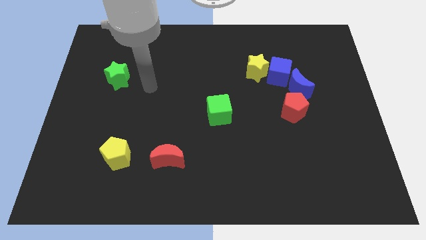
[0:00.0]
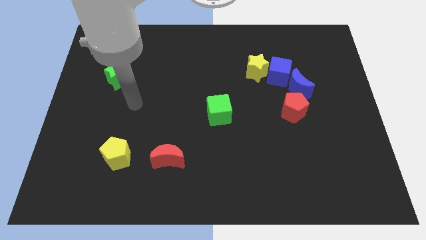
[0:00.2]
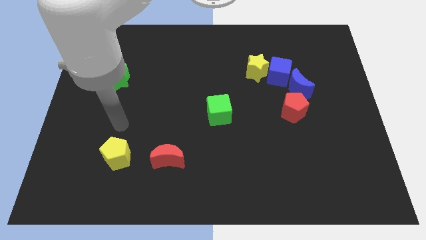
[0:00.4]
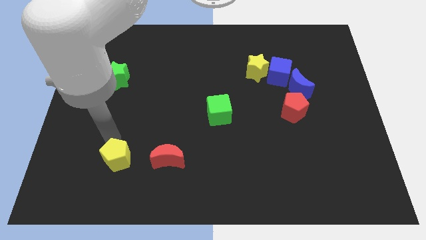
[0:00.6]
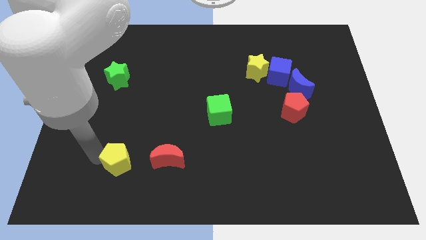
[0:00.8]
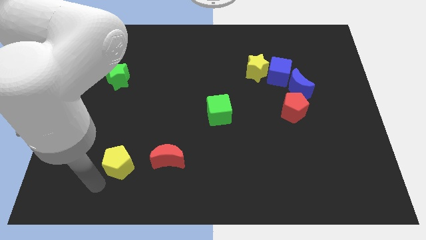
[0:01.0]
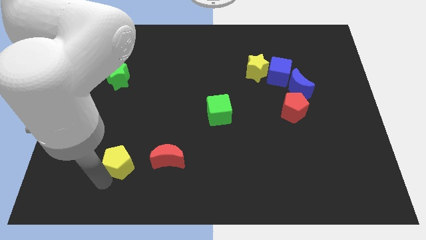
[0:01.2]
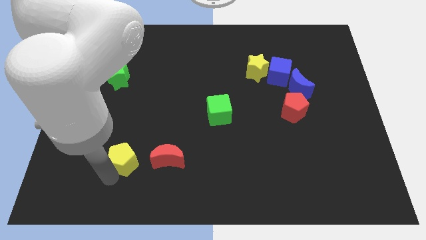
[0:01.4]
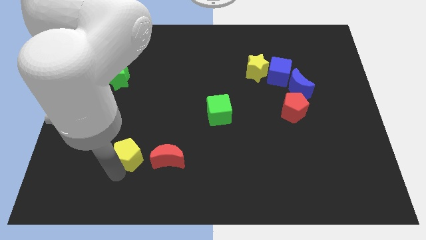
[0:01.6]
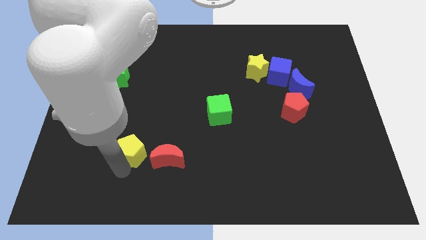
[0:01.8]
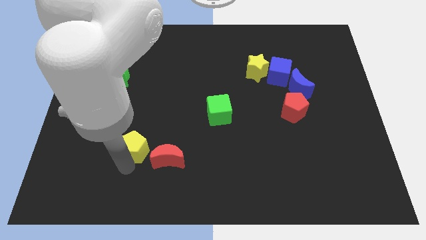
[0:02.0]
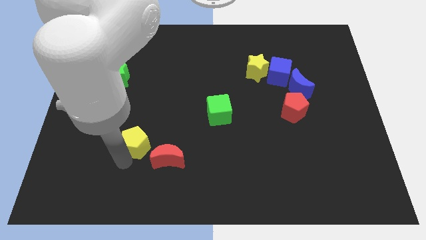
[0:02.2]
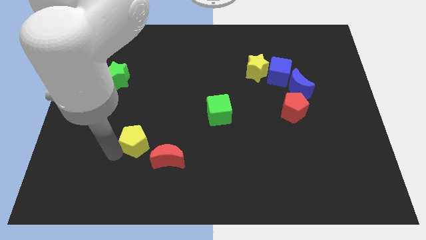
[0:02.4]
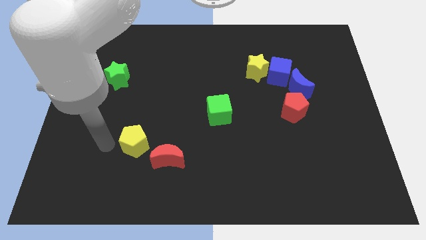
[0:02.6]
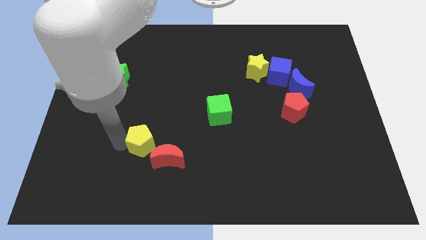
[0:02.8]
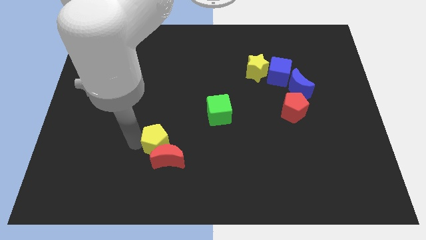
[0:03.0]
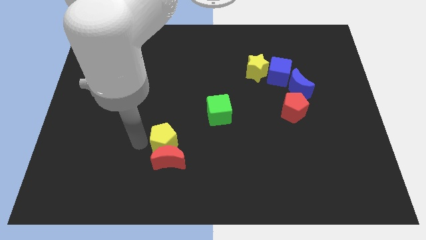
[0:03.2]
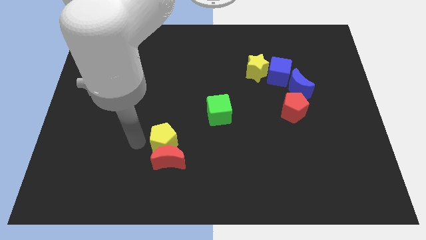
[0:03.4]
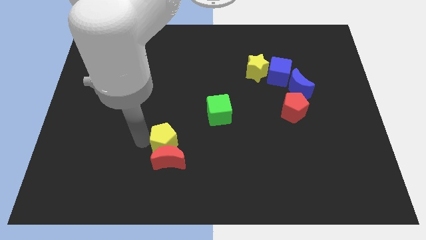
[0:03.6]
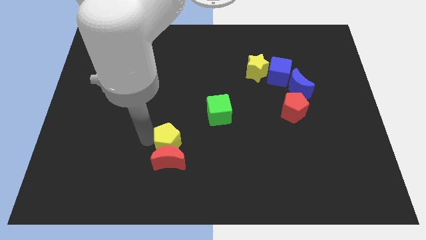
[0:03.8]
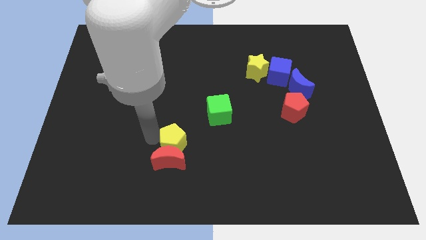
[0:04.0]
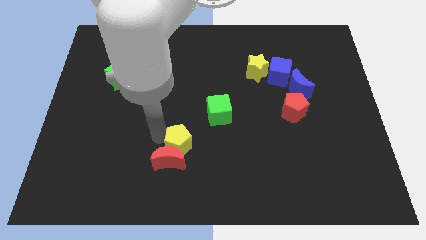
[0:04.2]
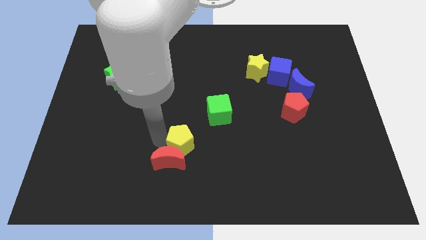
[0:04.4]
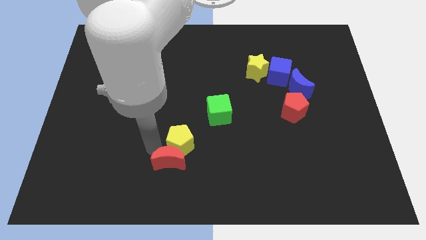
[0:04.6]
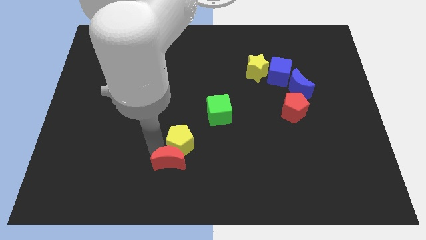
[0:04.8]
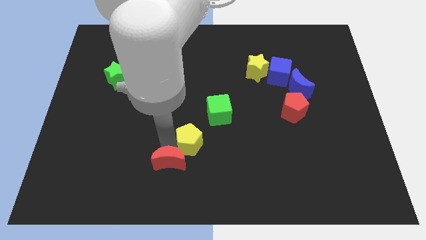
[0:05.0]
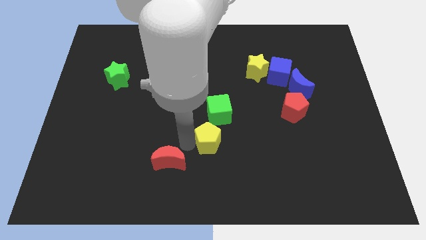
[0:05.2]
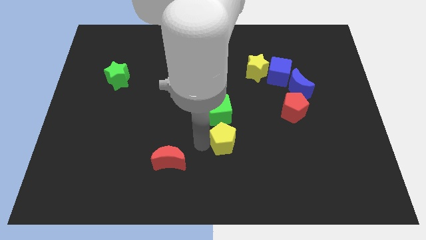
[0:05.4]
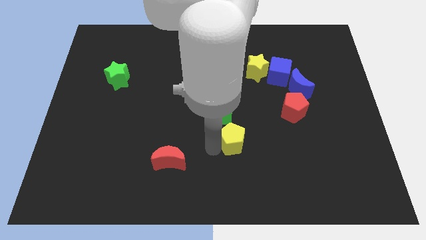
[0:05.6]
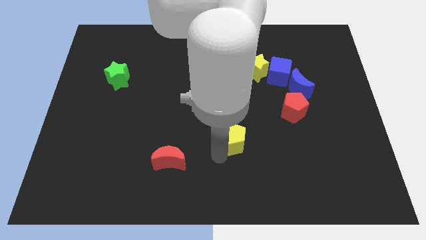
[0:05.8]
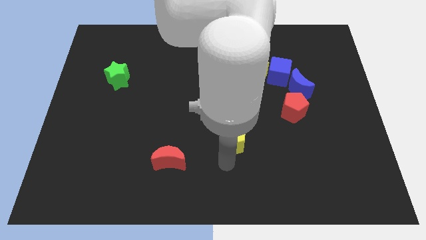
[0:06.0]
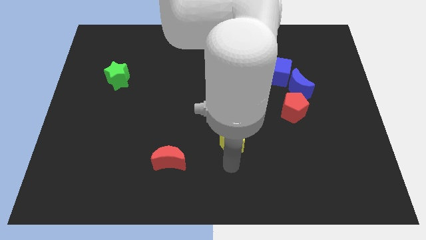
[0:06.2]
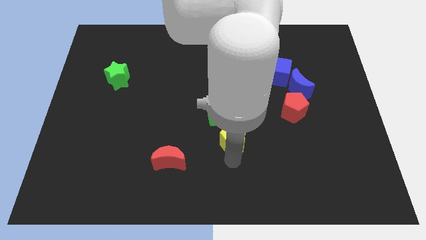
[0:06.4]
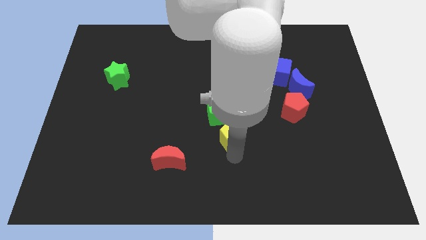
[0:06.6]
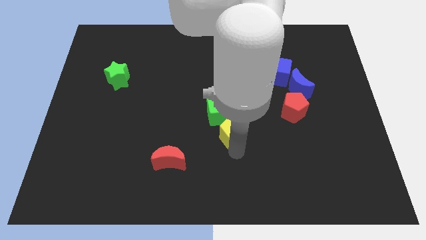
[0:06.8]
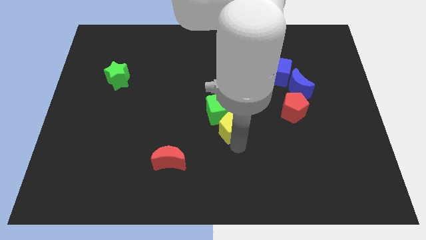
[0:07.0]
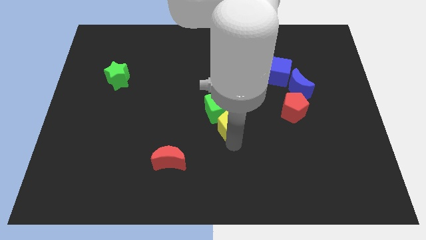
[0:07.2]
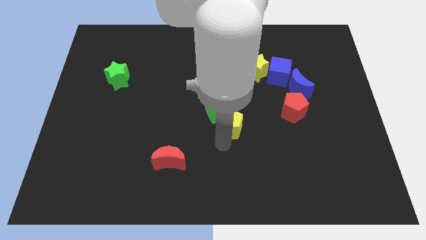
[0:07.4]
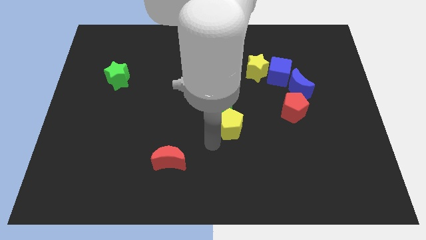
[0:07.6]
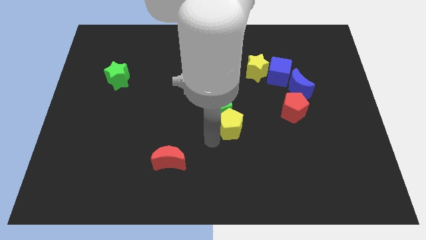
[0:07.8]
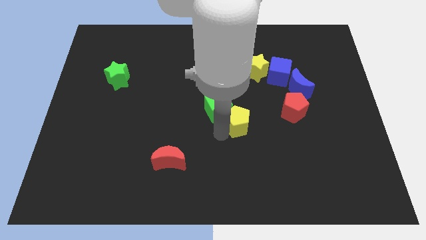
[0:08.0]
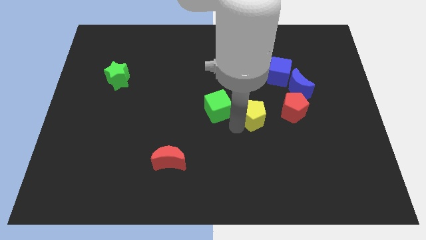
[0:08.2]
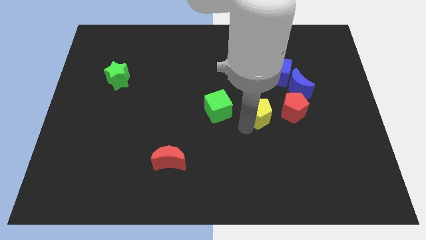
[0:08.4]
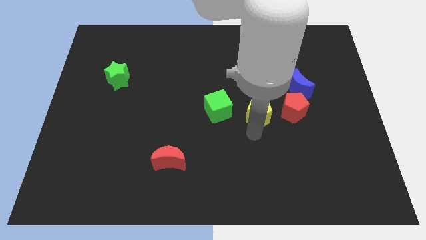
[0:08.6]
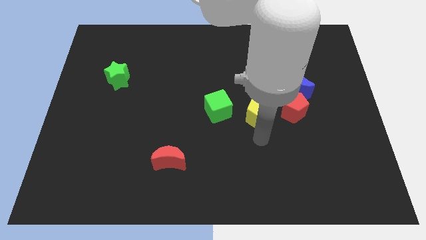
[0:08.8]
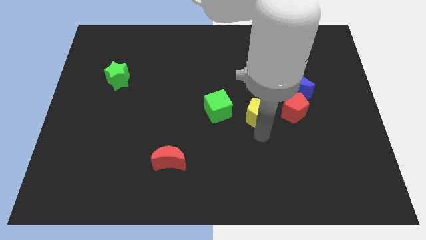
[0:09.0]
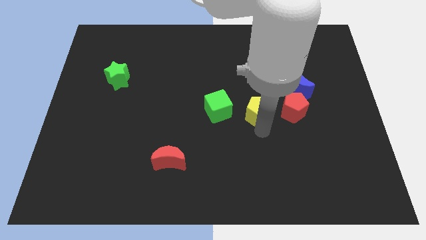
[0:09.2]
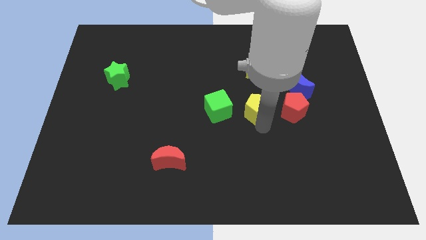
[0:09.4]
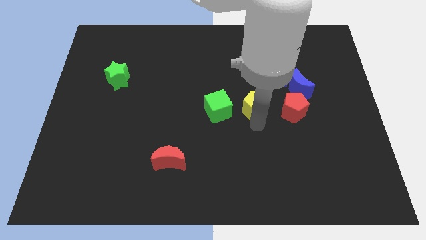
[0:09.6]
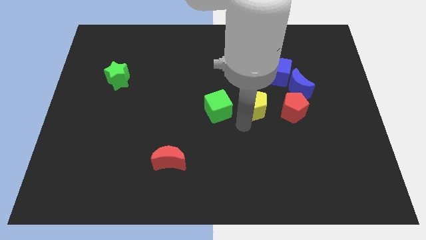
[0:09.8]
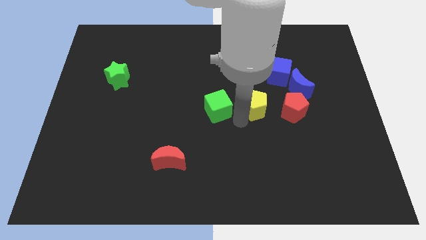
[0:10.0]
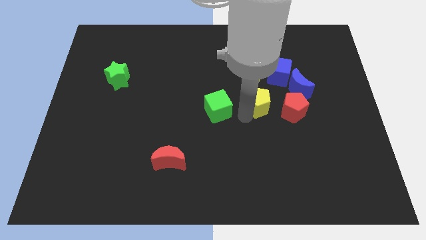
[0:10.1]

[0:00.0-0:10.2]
move the yellow pentagon diagonally up and to the left of the red pentagon

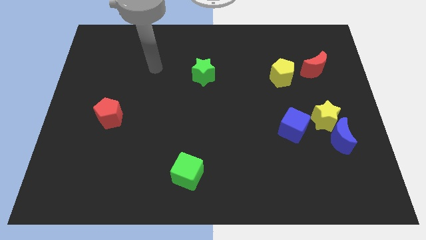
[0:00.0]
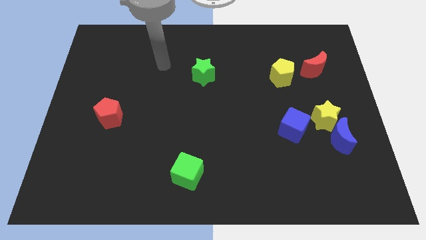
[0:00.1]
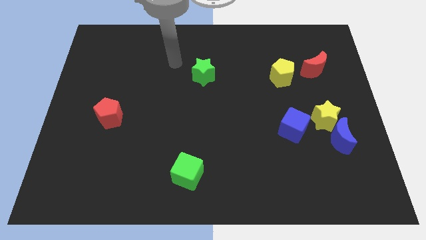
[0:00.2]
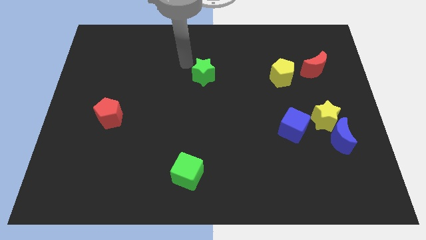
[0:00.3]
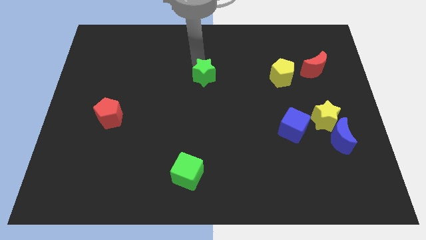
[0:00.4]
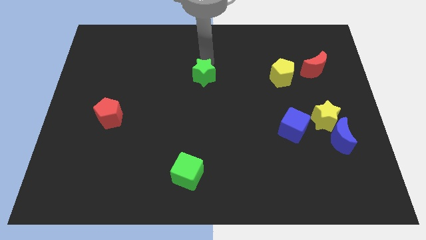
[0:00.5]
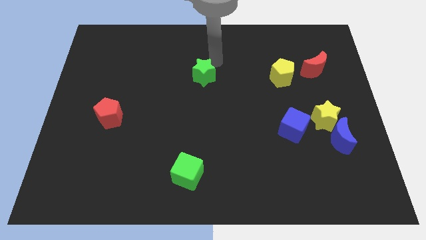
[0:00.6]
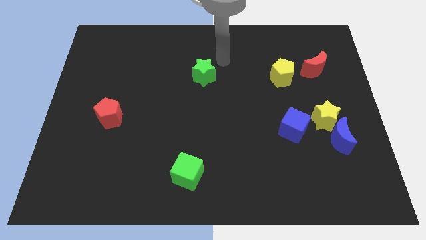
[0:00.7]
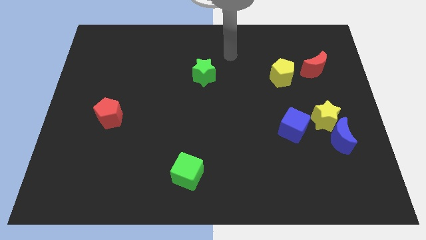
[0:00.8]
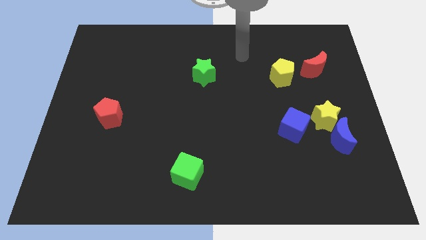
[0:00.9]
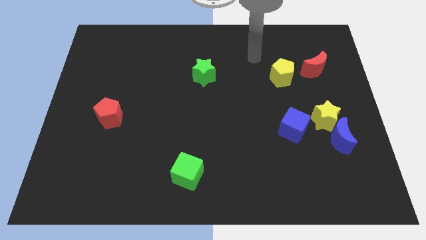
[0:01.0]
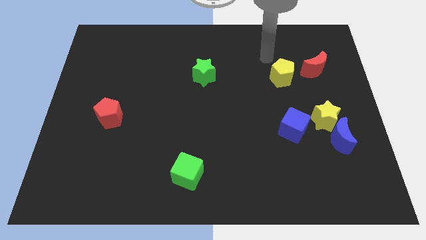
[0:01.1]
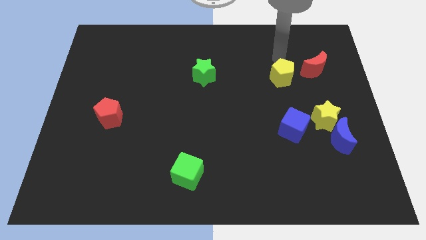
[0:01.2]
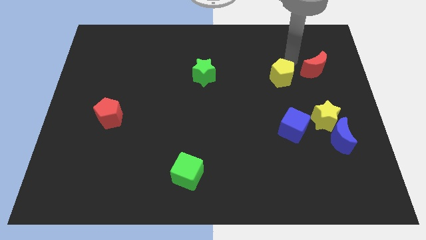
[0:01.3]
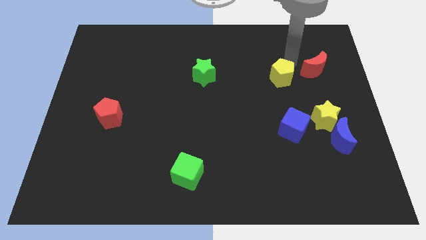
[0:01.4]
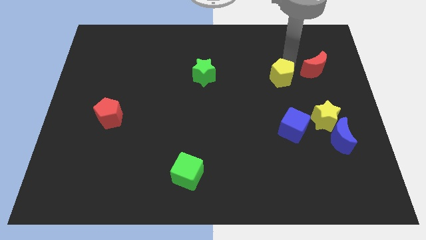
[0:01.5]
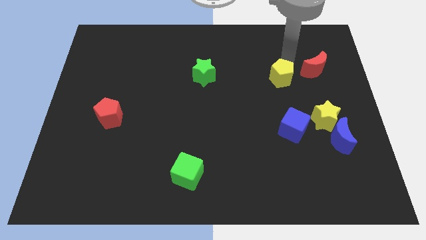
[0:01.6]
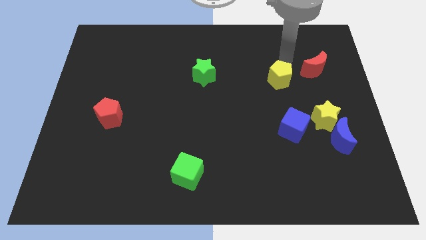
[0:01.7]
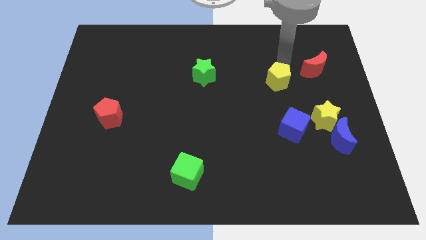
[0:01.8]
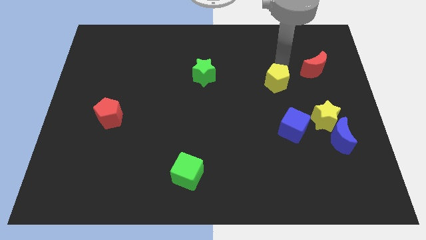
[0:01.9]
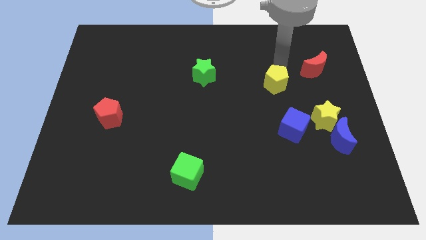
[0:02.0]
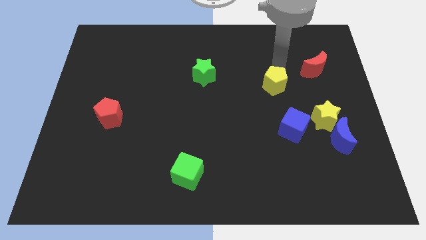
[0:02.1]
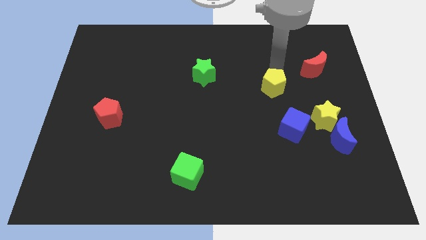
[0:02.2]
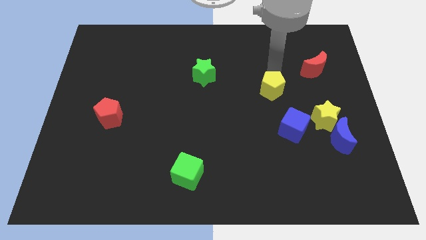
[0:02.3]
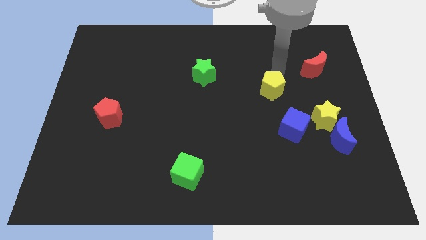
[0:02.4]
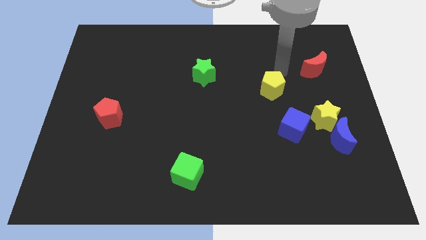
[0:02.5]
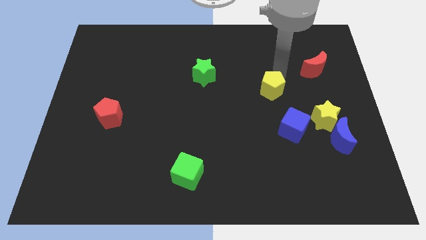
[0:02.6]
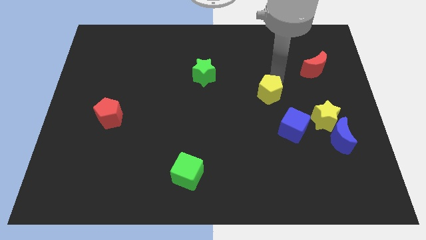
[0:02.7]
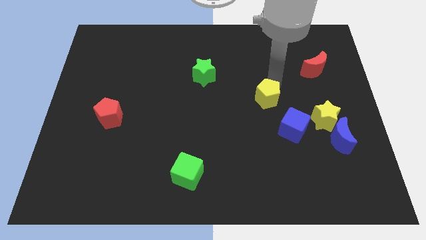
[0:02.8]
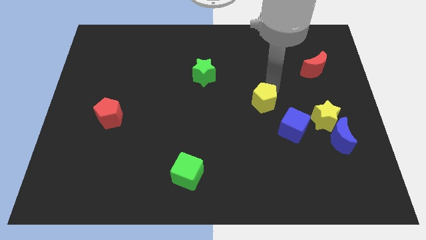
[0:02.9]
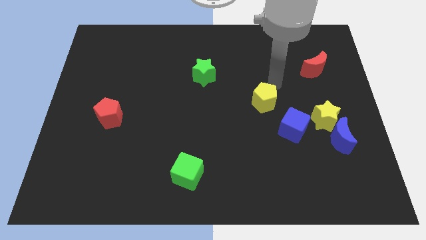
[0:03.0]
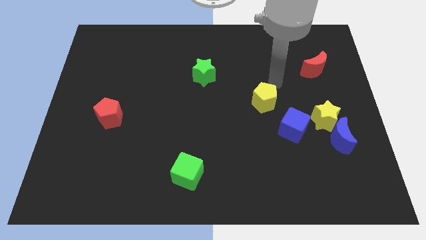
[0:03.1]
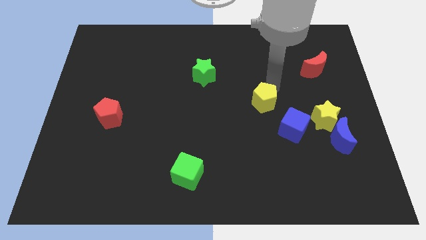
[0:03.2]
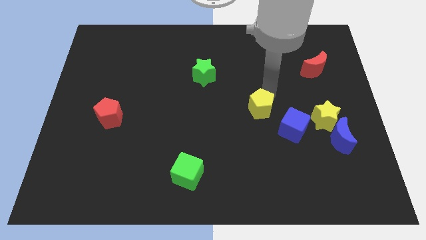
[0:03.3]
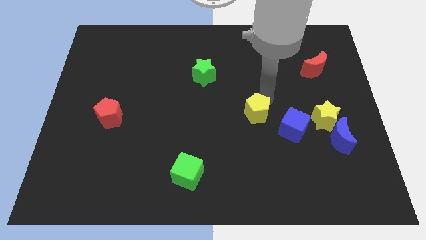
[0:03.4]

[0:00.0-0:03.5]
put the yellow pentagon to the left of the blue cube
